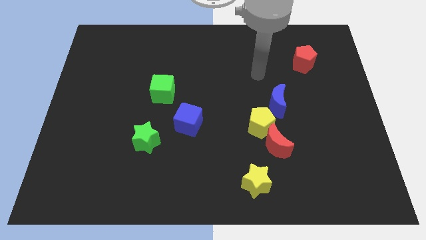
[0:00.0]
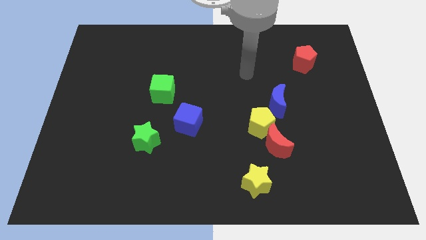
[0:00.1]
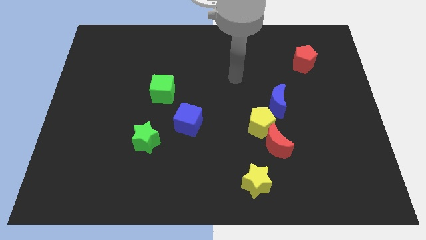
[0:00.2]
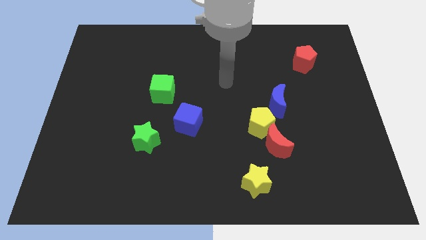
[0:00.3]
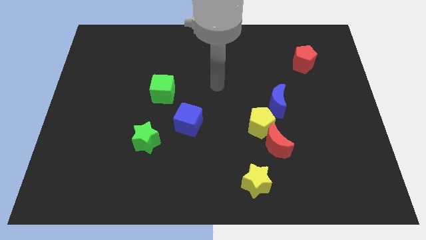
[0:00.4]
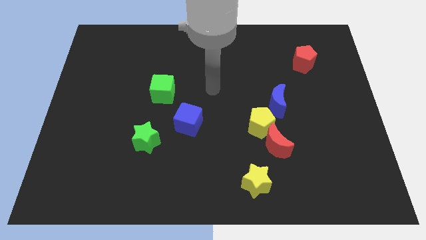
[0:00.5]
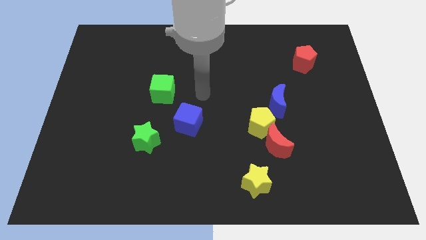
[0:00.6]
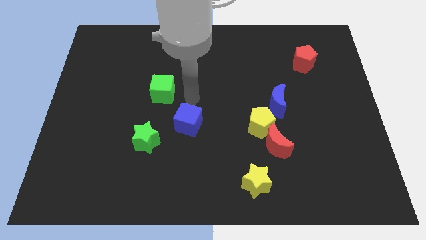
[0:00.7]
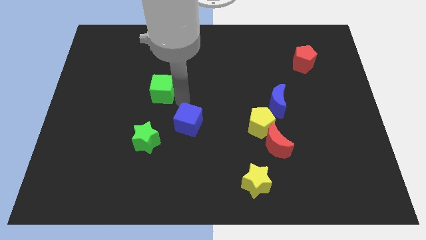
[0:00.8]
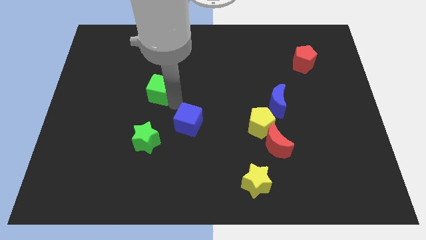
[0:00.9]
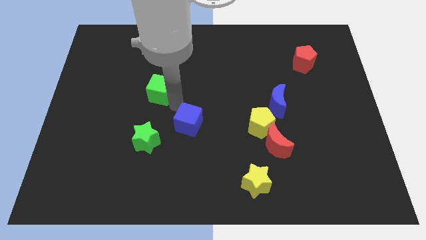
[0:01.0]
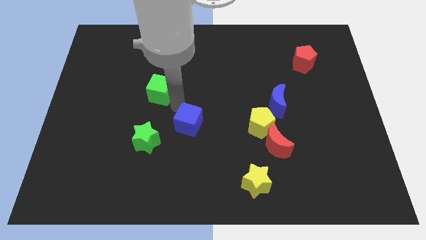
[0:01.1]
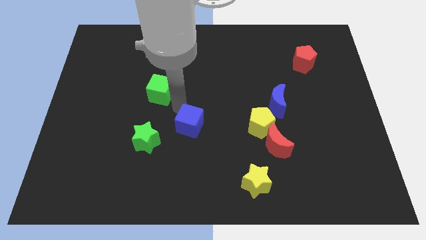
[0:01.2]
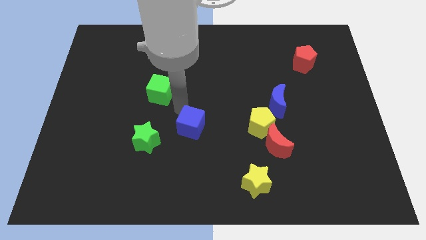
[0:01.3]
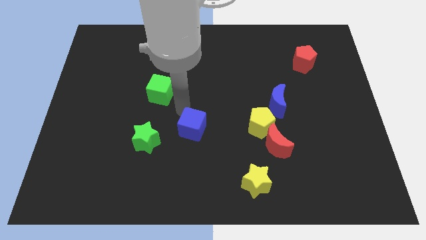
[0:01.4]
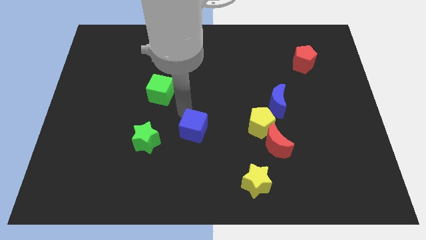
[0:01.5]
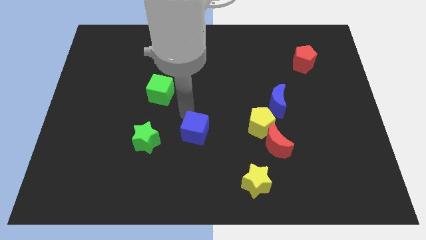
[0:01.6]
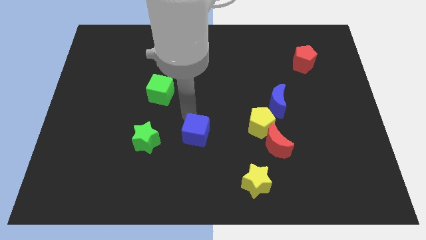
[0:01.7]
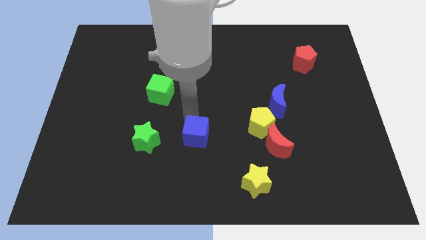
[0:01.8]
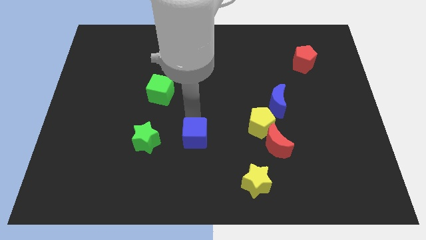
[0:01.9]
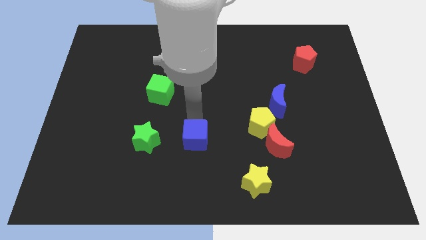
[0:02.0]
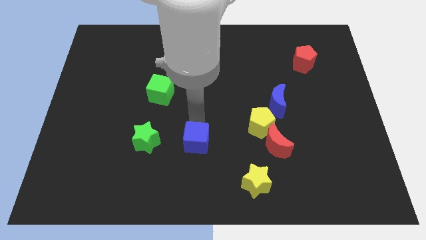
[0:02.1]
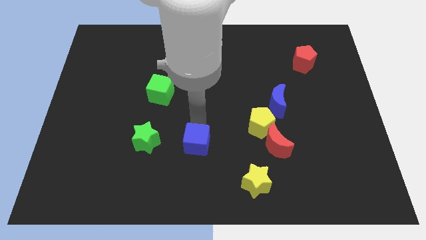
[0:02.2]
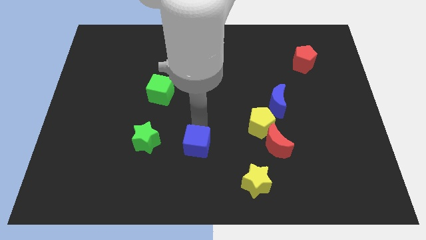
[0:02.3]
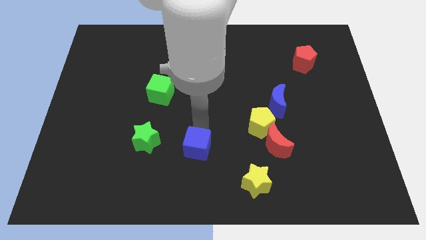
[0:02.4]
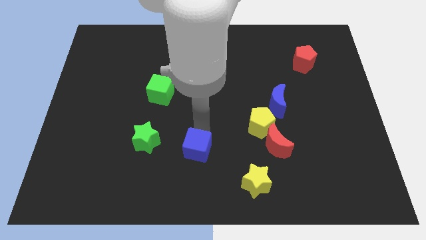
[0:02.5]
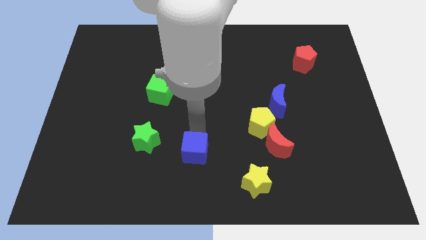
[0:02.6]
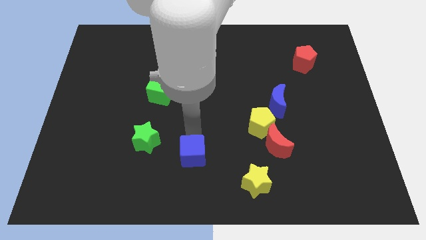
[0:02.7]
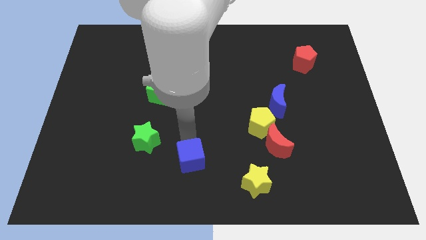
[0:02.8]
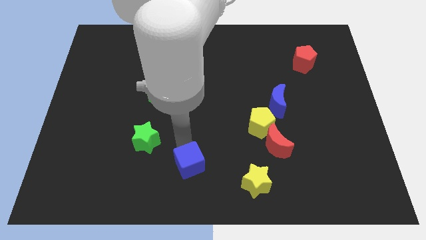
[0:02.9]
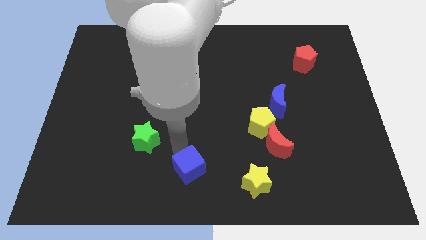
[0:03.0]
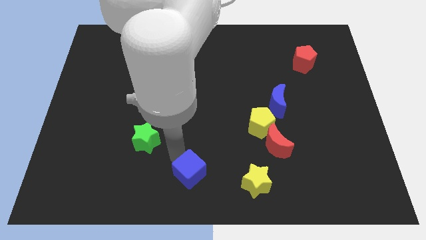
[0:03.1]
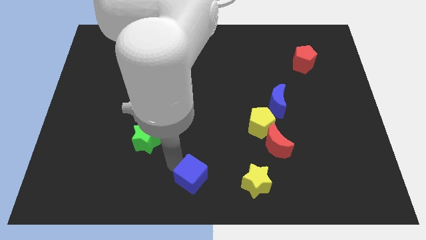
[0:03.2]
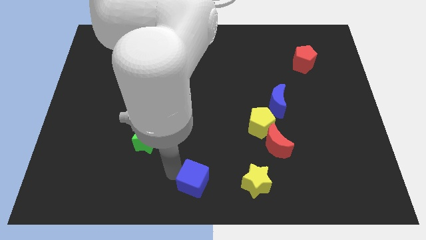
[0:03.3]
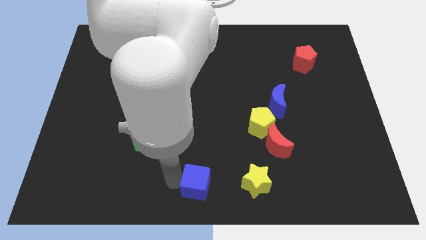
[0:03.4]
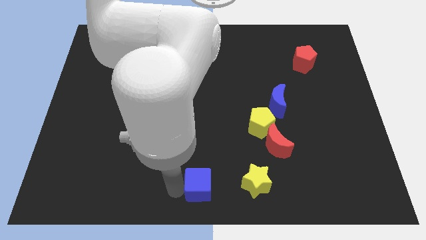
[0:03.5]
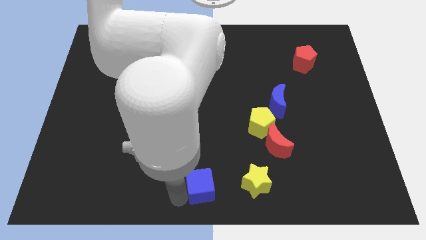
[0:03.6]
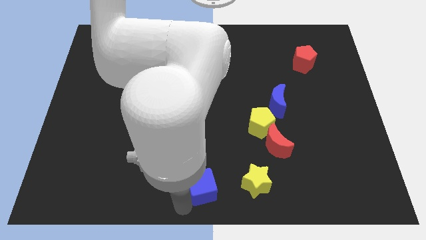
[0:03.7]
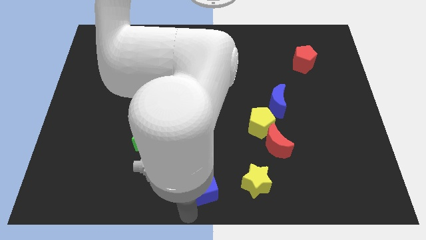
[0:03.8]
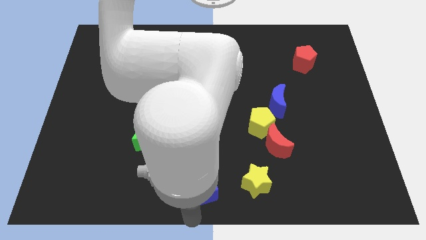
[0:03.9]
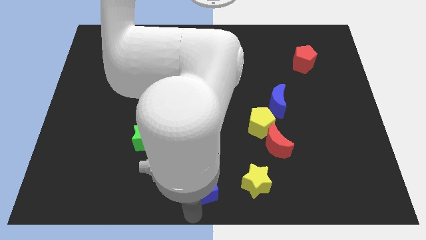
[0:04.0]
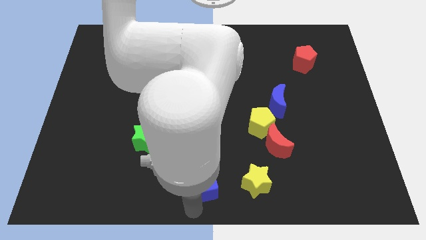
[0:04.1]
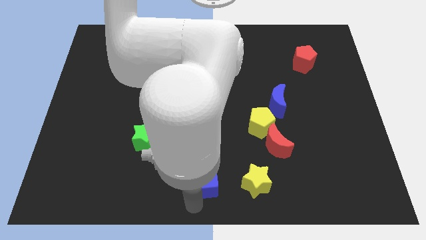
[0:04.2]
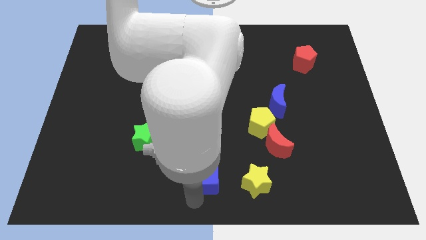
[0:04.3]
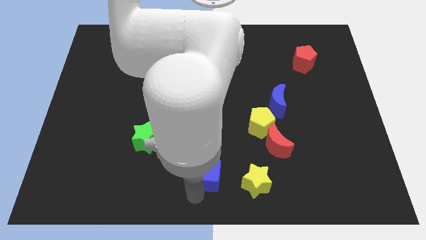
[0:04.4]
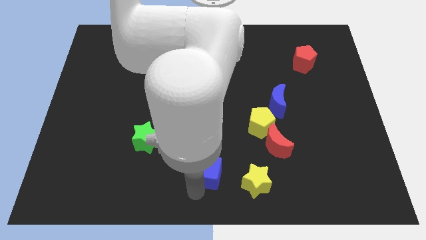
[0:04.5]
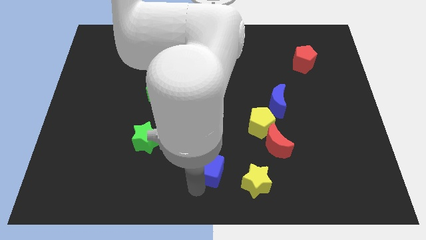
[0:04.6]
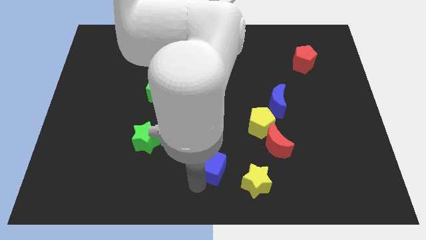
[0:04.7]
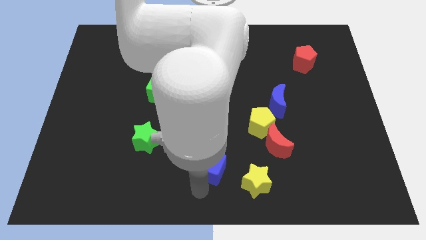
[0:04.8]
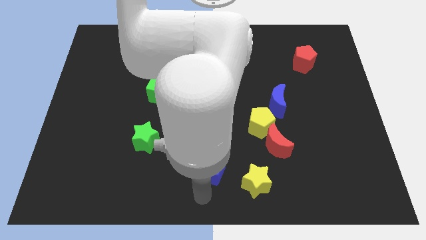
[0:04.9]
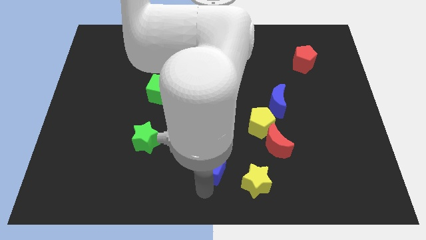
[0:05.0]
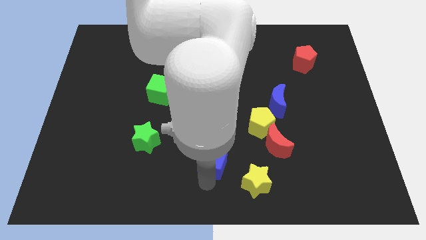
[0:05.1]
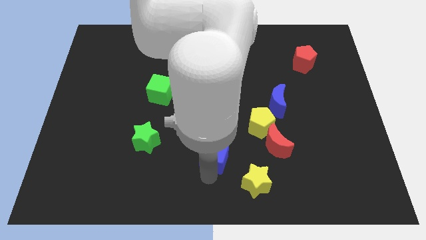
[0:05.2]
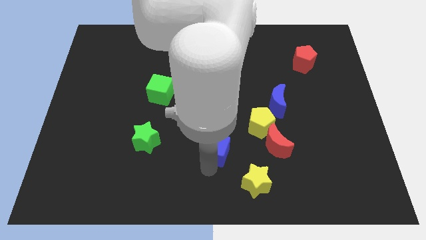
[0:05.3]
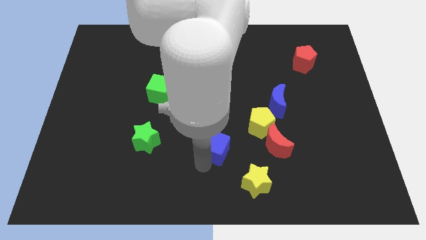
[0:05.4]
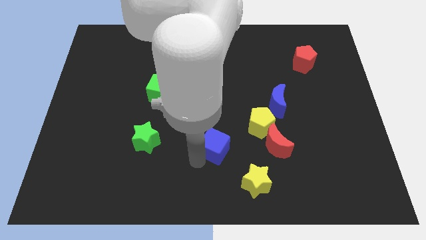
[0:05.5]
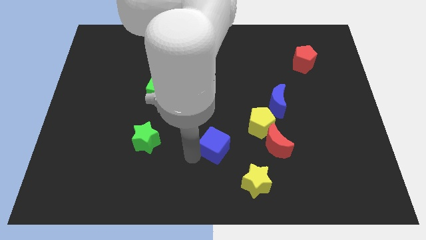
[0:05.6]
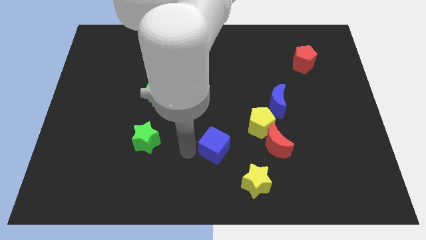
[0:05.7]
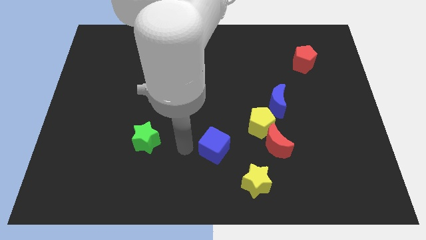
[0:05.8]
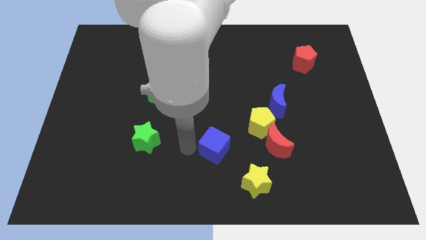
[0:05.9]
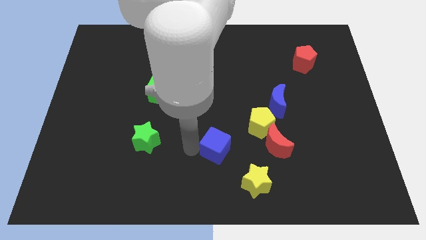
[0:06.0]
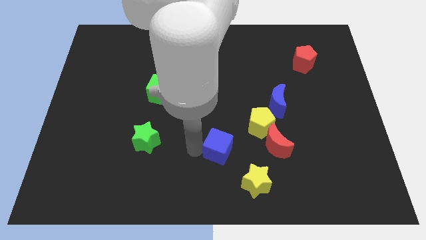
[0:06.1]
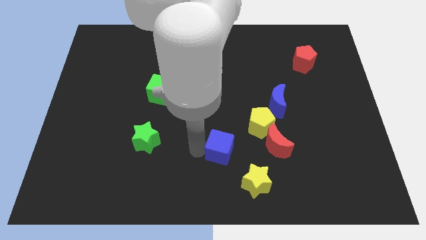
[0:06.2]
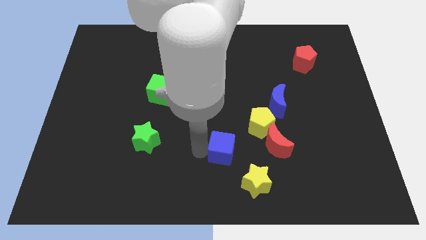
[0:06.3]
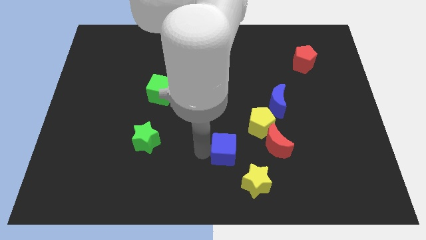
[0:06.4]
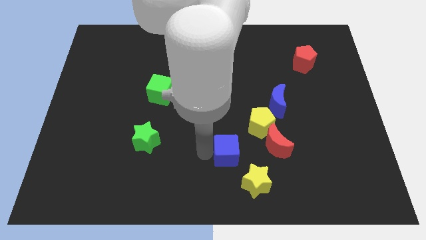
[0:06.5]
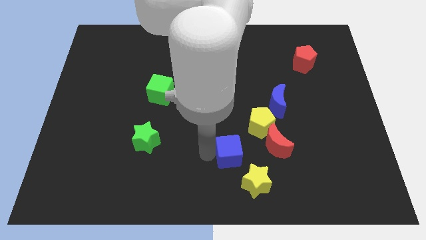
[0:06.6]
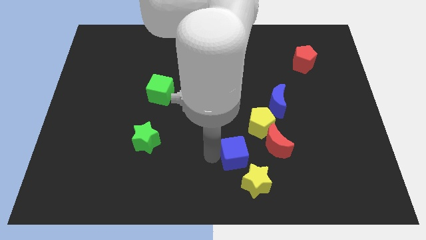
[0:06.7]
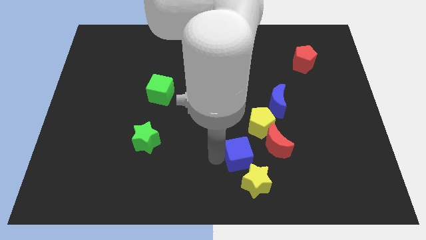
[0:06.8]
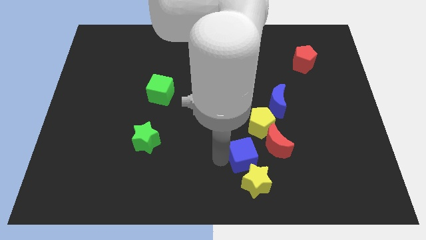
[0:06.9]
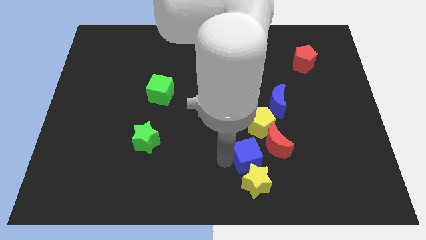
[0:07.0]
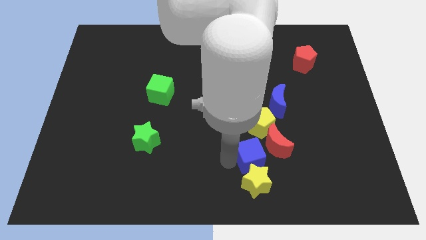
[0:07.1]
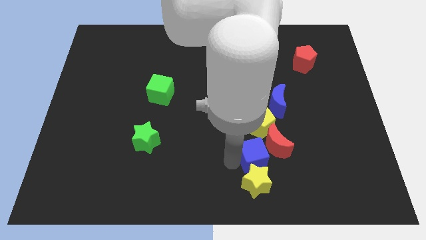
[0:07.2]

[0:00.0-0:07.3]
slide the blue cube to the red moon
